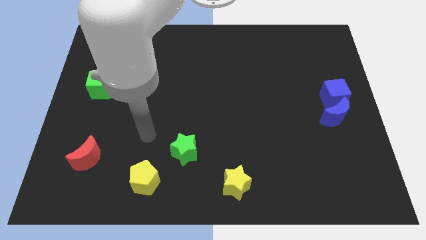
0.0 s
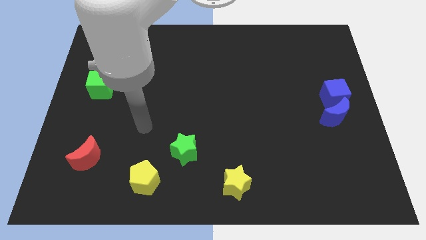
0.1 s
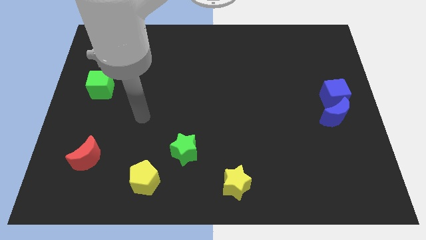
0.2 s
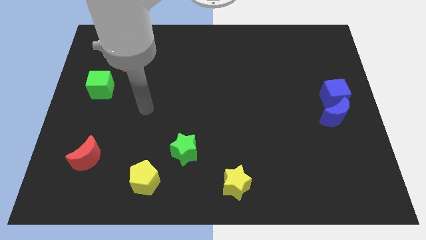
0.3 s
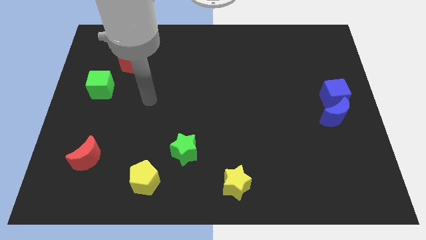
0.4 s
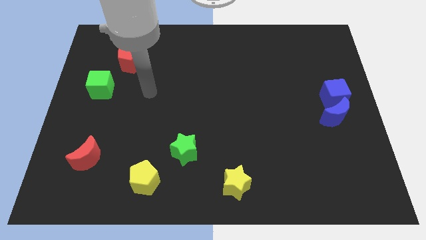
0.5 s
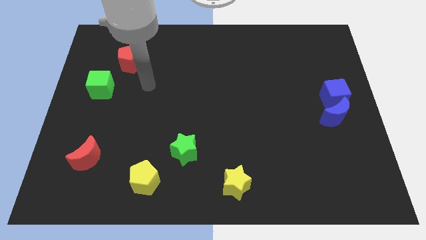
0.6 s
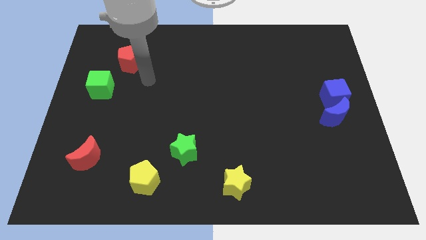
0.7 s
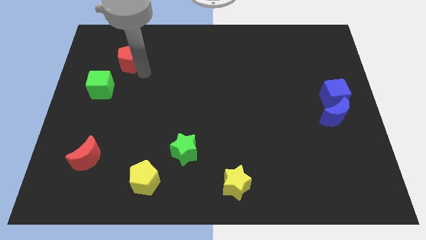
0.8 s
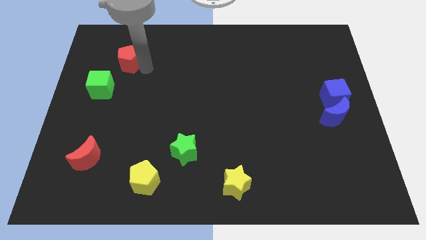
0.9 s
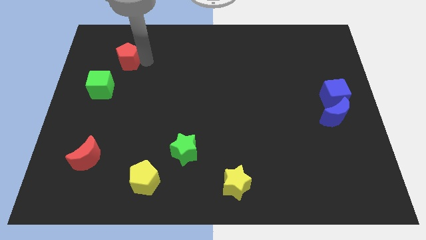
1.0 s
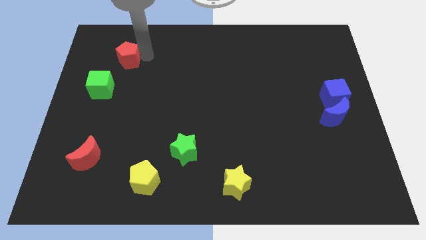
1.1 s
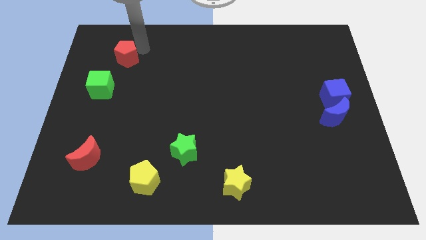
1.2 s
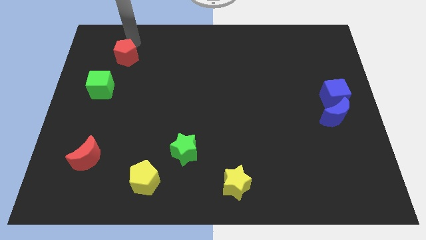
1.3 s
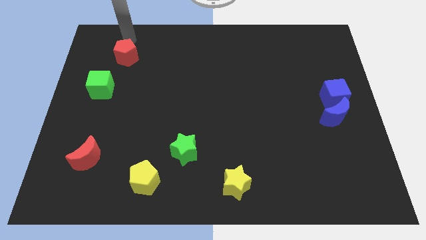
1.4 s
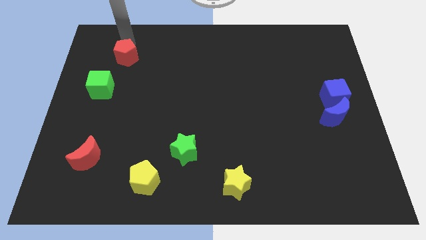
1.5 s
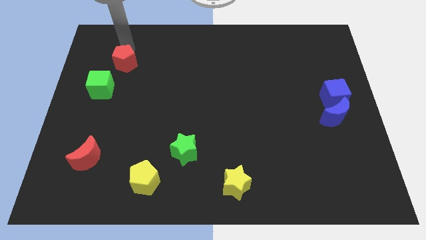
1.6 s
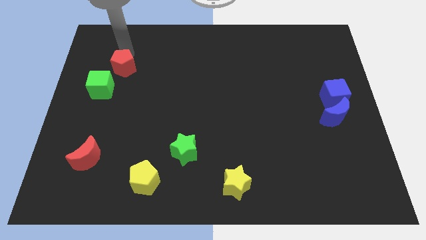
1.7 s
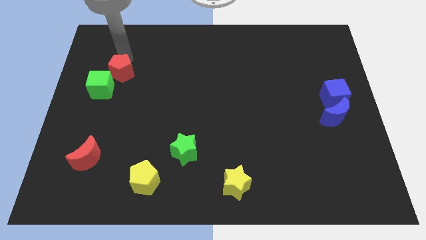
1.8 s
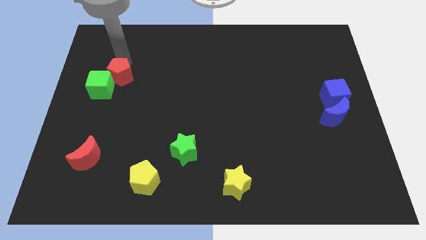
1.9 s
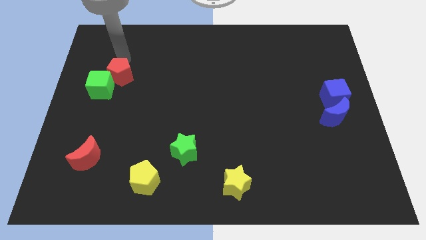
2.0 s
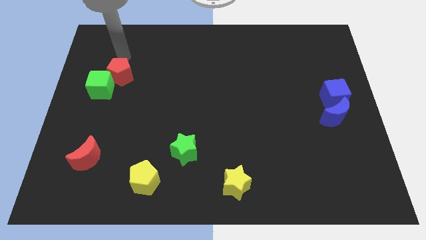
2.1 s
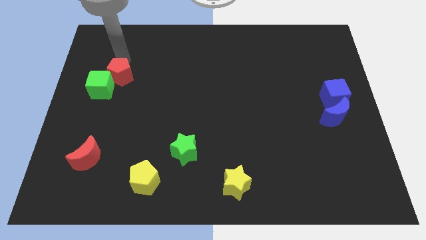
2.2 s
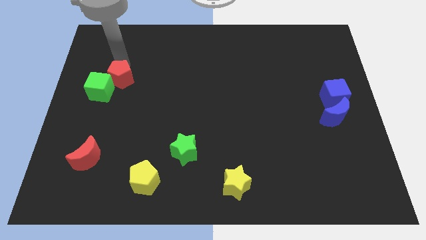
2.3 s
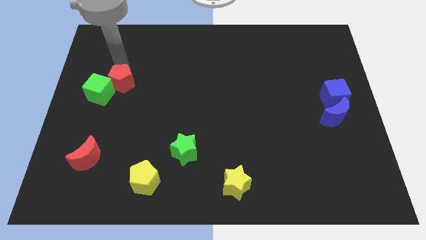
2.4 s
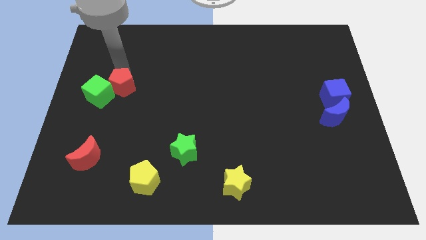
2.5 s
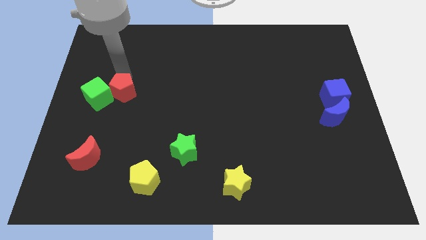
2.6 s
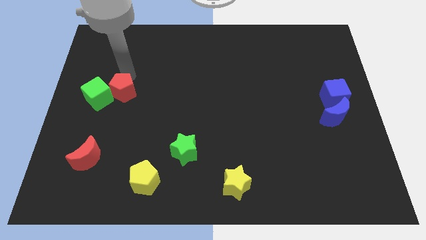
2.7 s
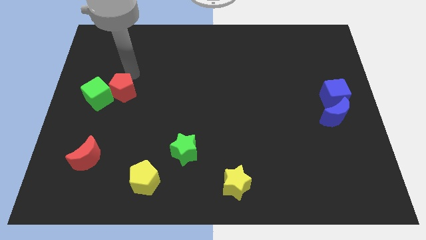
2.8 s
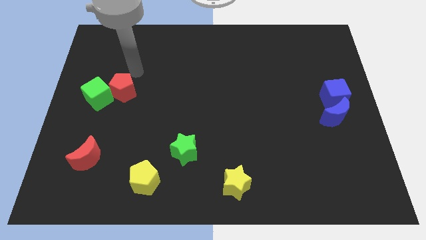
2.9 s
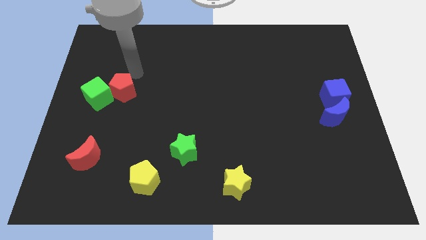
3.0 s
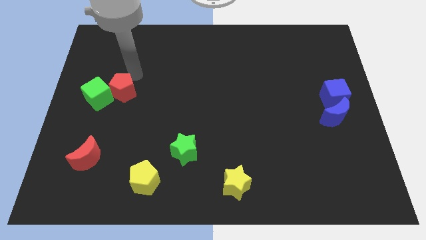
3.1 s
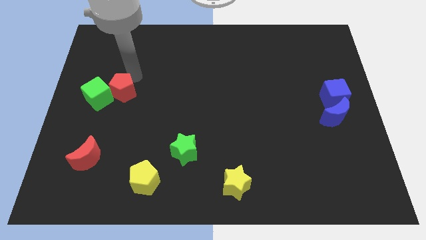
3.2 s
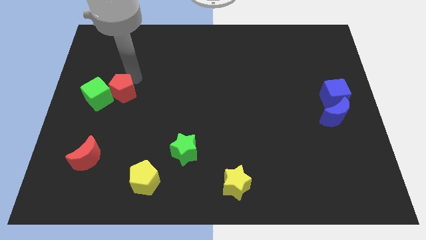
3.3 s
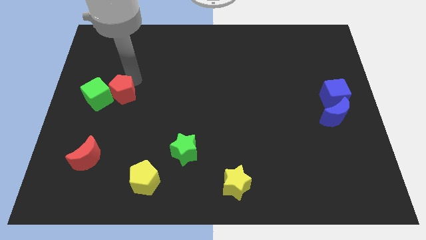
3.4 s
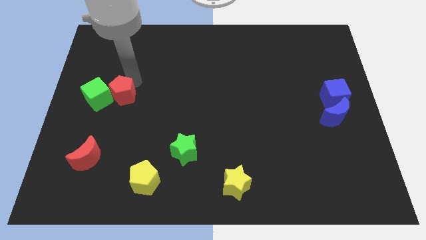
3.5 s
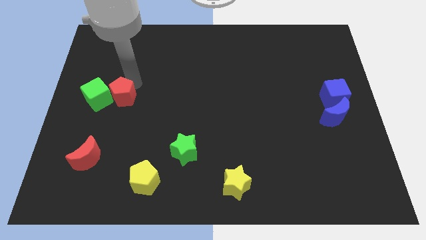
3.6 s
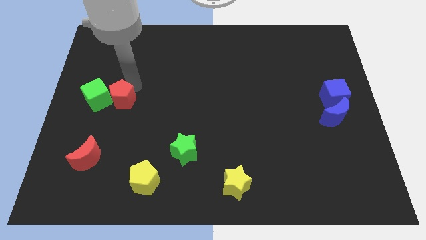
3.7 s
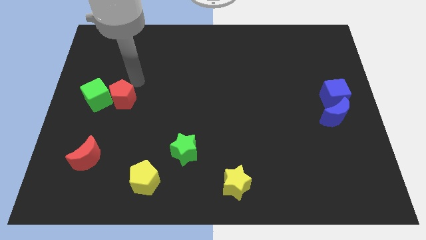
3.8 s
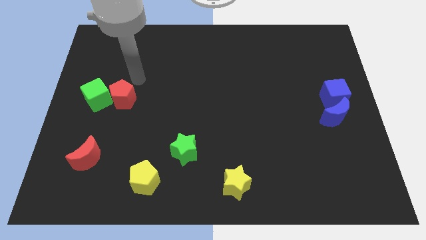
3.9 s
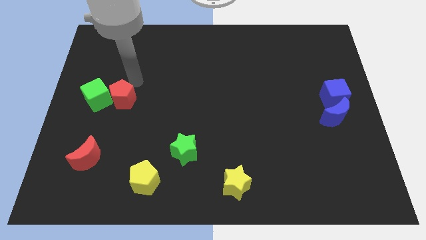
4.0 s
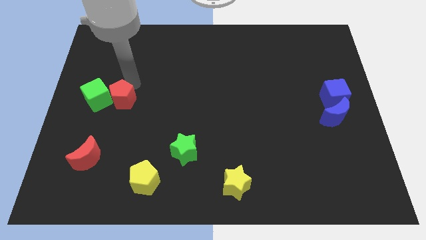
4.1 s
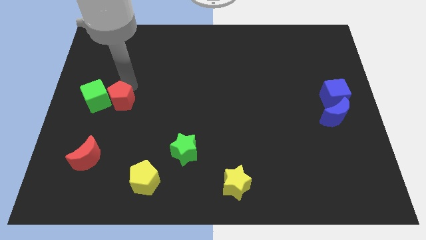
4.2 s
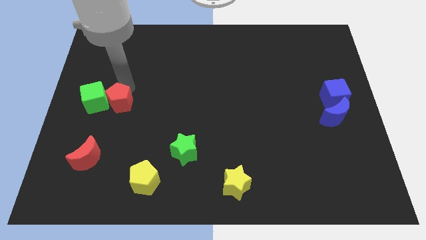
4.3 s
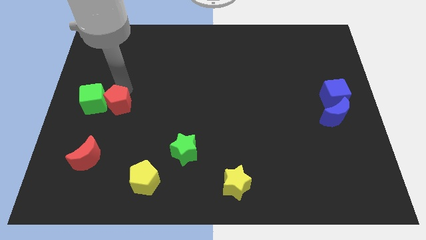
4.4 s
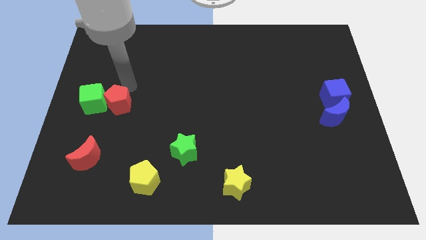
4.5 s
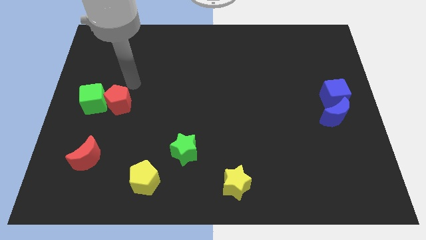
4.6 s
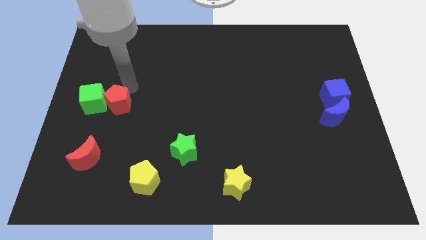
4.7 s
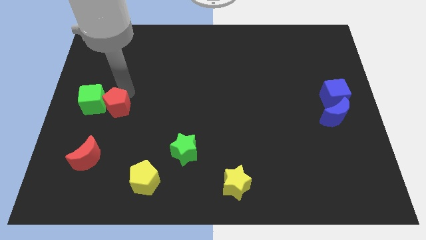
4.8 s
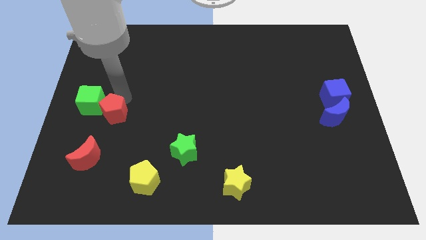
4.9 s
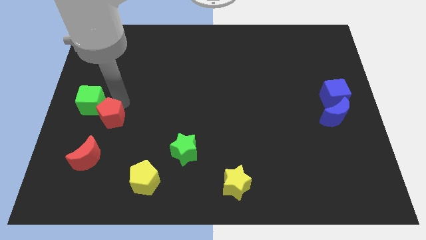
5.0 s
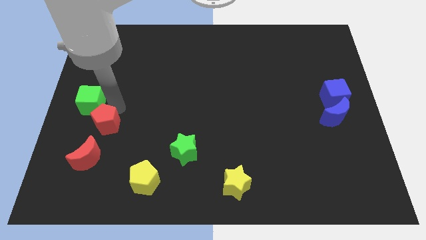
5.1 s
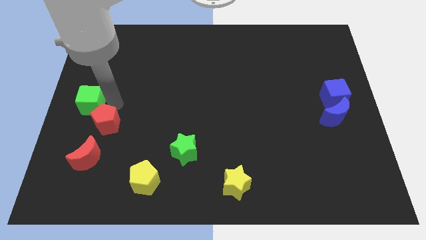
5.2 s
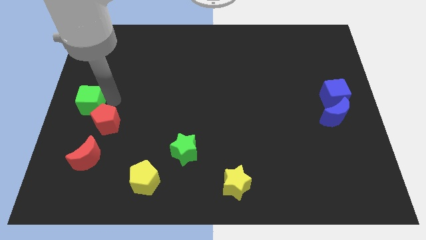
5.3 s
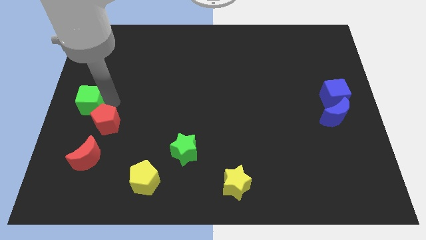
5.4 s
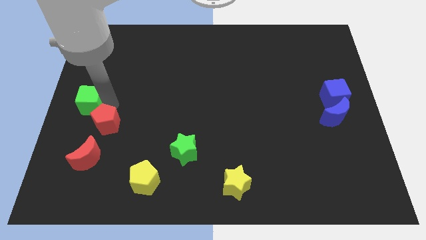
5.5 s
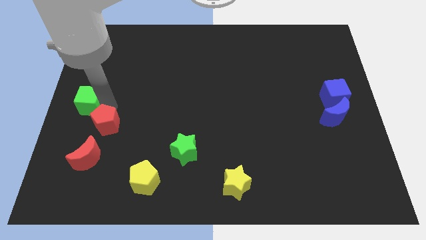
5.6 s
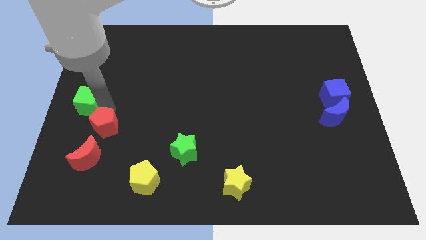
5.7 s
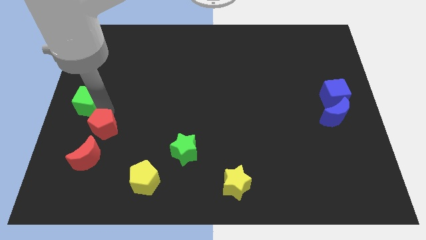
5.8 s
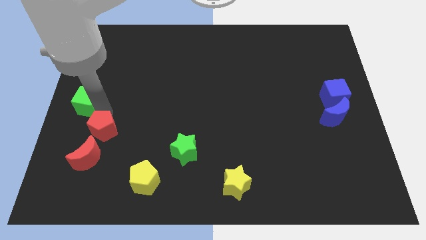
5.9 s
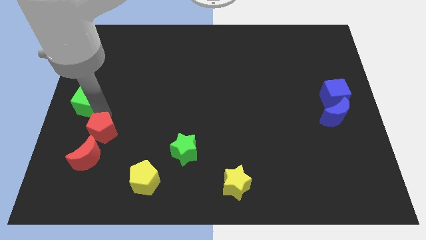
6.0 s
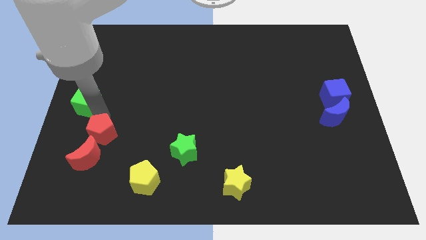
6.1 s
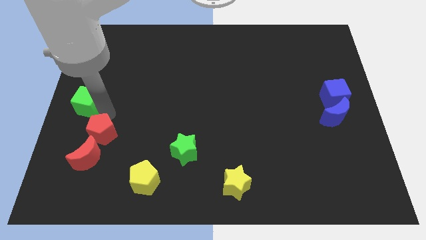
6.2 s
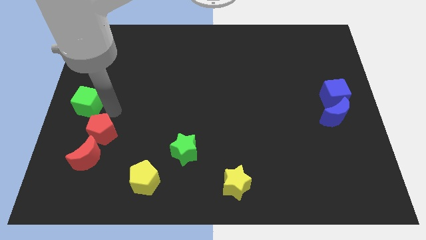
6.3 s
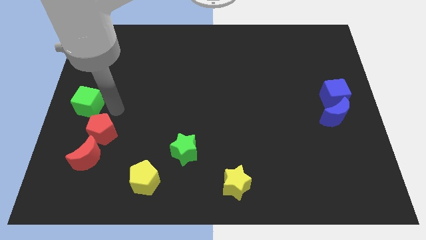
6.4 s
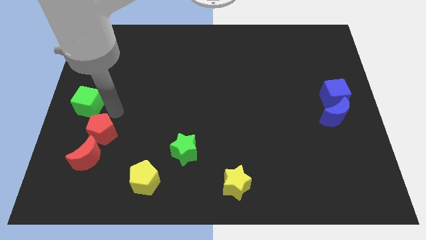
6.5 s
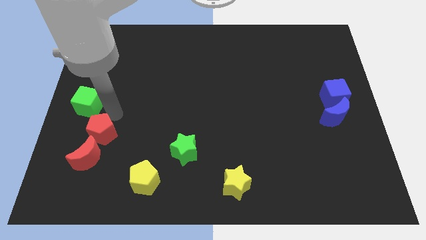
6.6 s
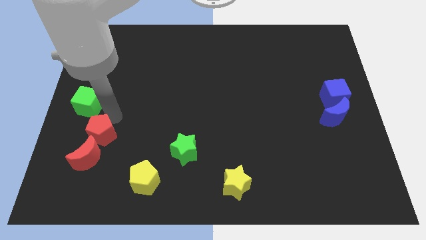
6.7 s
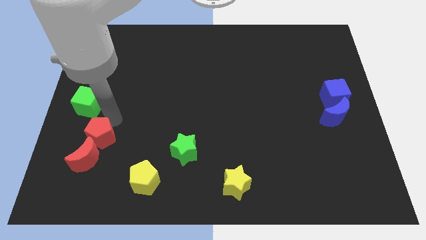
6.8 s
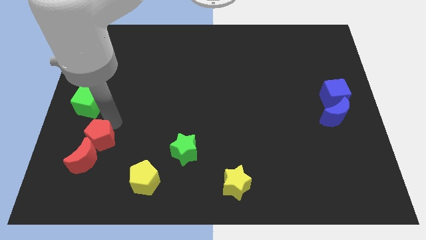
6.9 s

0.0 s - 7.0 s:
slide the red pentagon next to the red moon

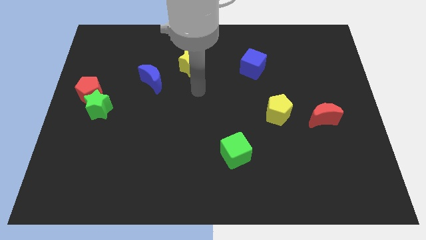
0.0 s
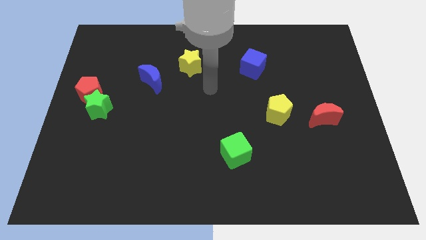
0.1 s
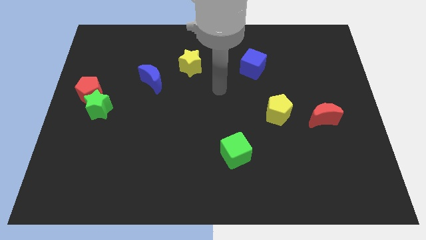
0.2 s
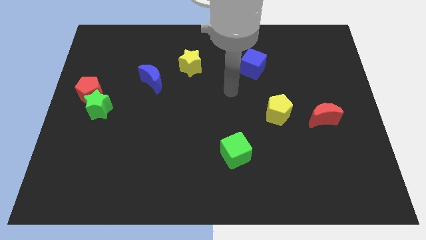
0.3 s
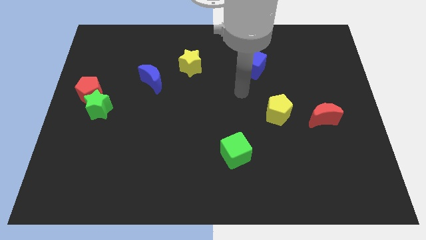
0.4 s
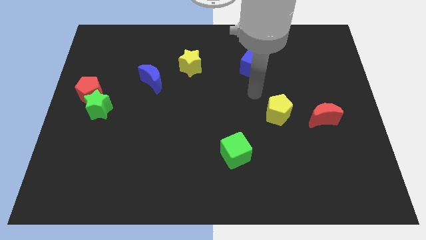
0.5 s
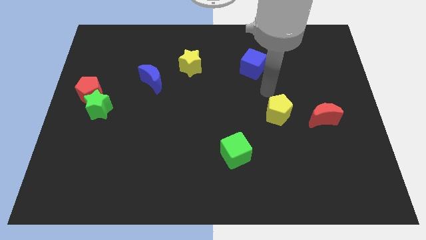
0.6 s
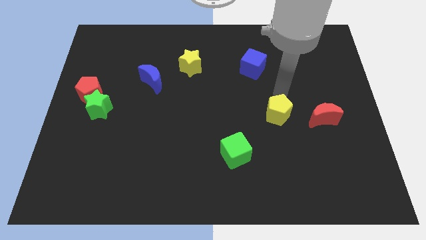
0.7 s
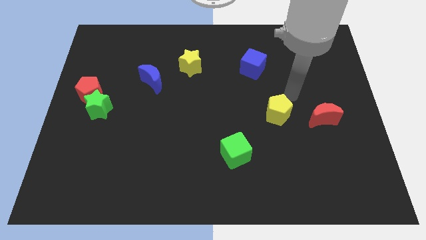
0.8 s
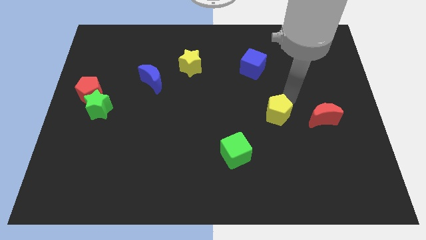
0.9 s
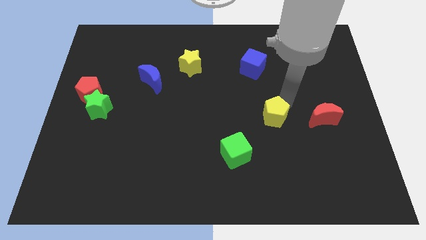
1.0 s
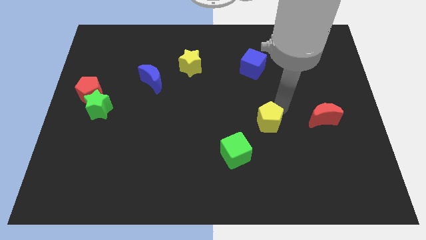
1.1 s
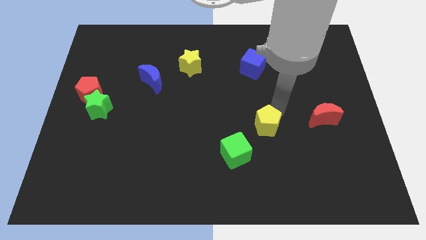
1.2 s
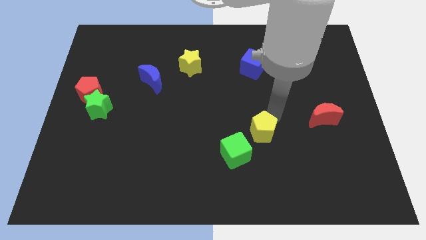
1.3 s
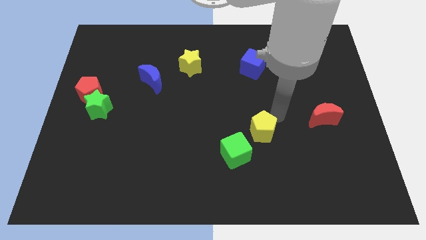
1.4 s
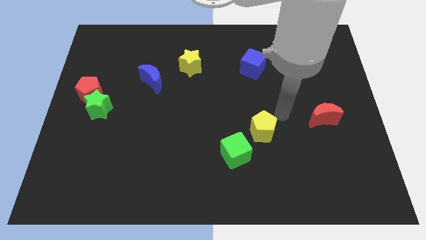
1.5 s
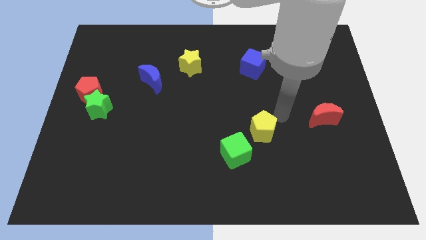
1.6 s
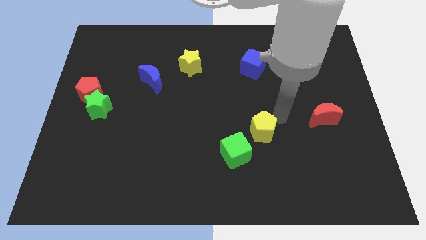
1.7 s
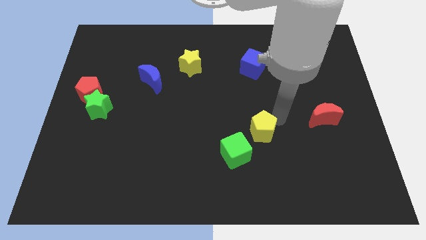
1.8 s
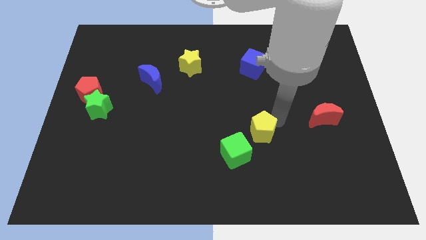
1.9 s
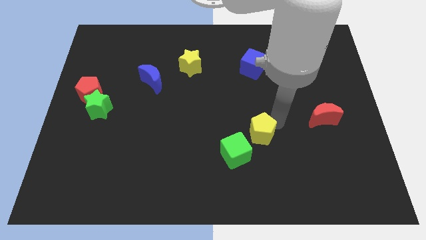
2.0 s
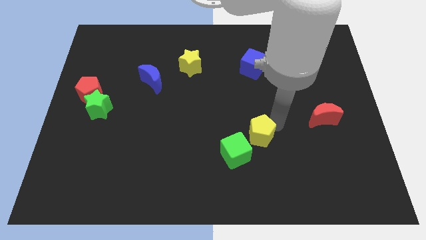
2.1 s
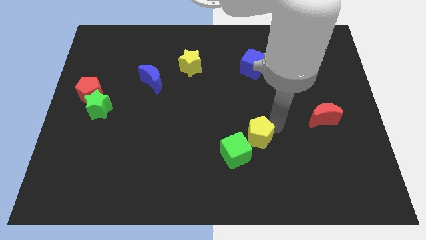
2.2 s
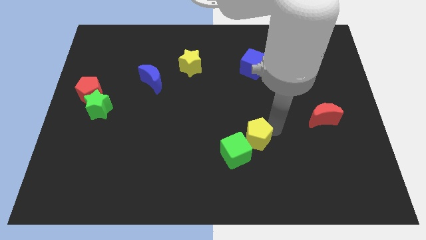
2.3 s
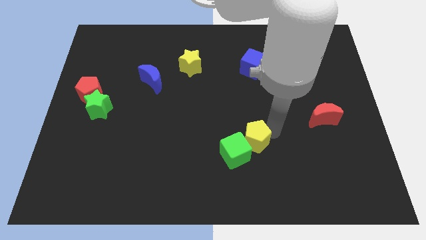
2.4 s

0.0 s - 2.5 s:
put the yellow pentagon next to the green cube
